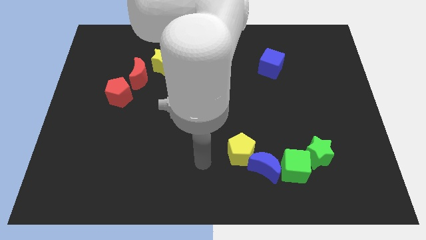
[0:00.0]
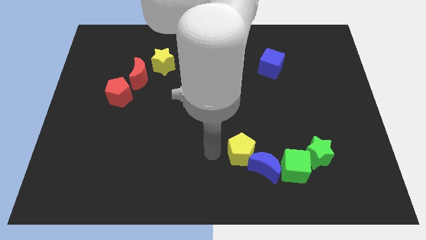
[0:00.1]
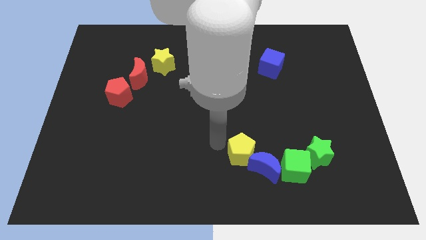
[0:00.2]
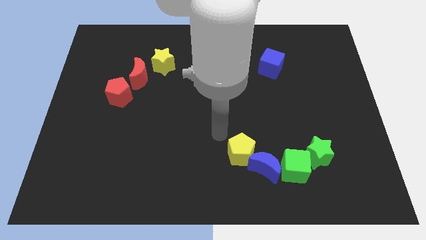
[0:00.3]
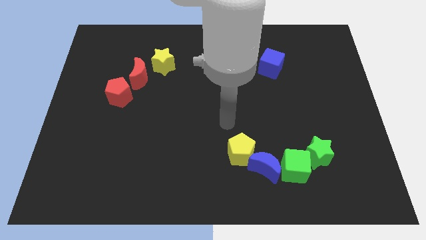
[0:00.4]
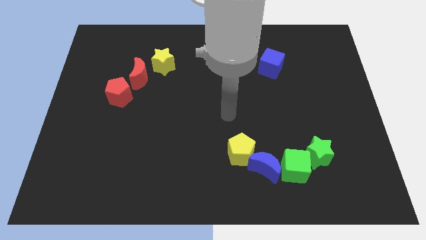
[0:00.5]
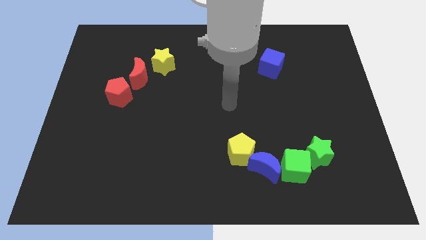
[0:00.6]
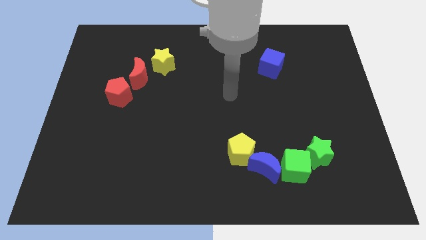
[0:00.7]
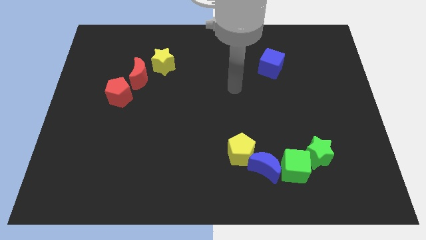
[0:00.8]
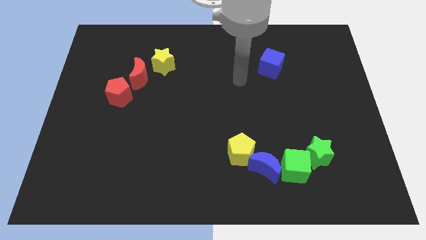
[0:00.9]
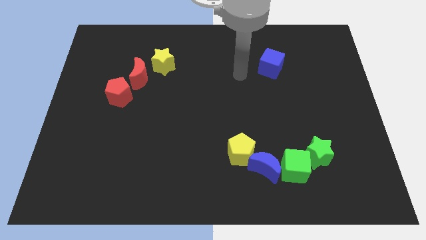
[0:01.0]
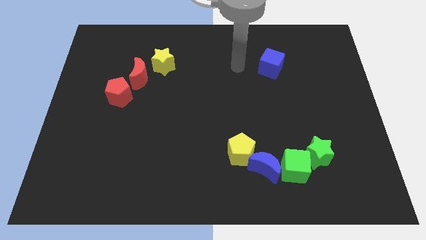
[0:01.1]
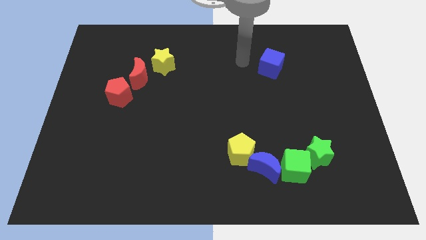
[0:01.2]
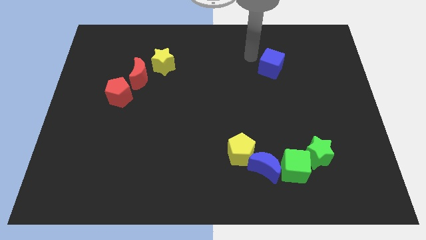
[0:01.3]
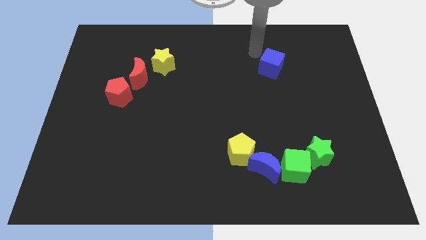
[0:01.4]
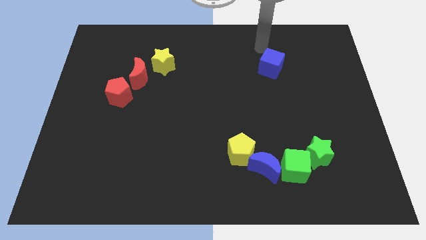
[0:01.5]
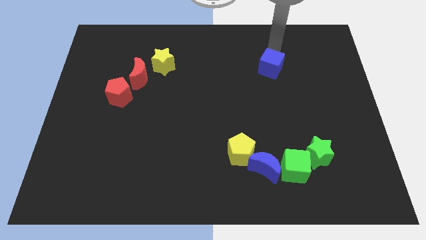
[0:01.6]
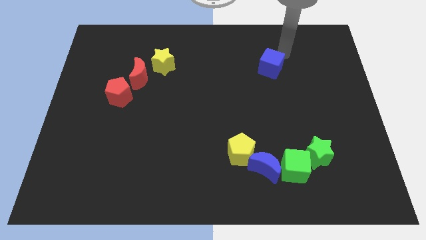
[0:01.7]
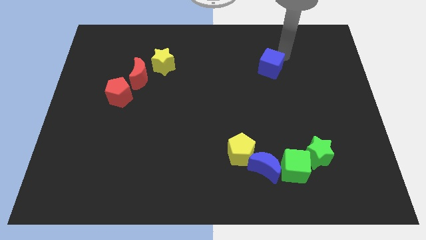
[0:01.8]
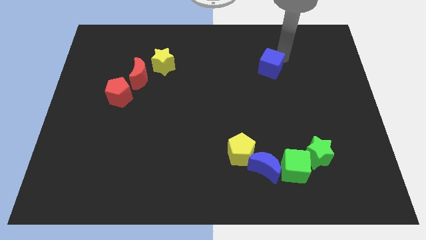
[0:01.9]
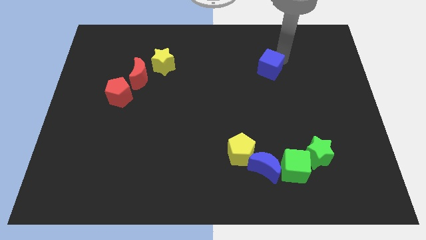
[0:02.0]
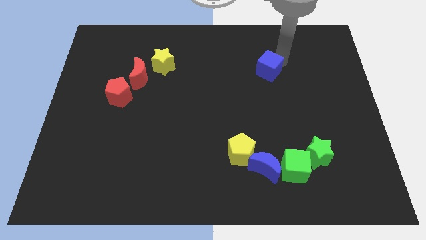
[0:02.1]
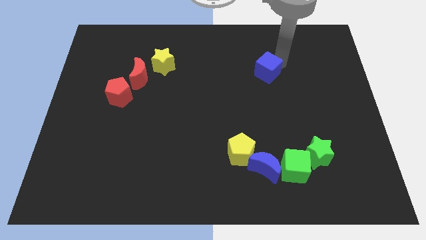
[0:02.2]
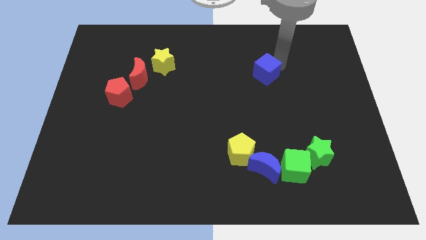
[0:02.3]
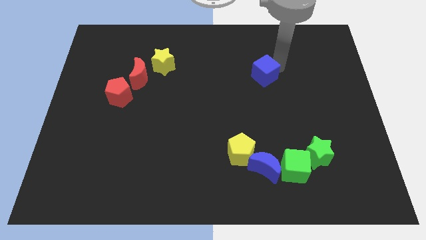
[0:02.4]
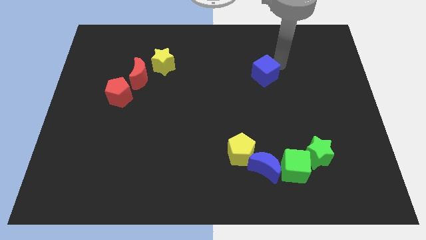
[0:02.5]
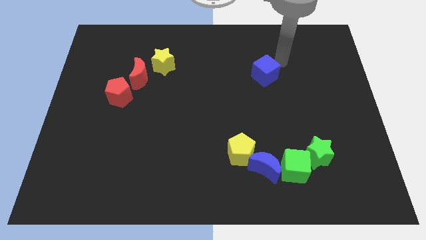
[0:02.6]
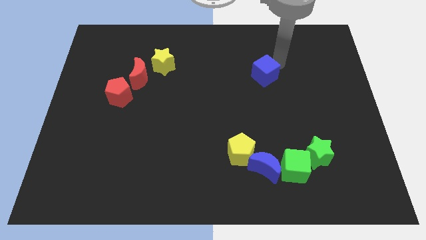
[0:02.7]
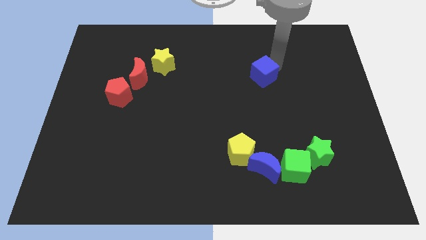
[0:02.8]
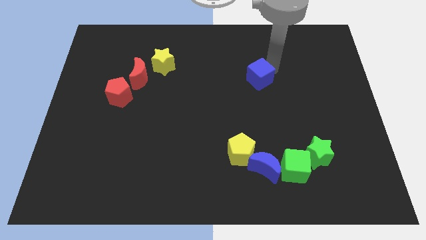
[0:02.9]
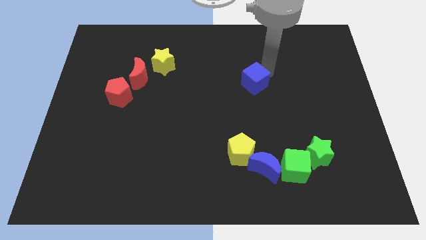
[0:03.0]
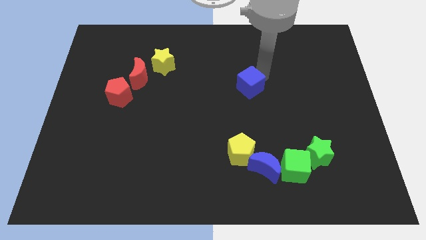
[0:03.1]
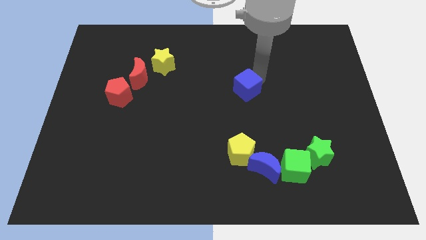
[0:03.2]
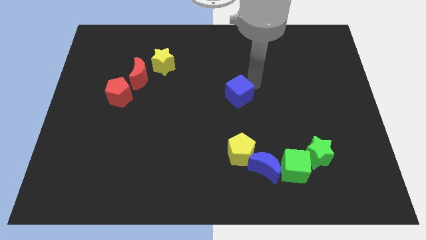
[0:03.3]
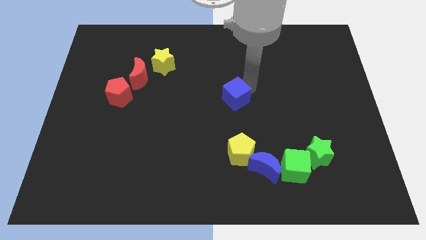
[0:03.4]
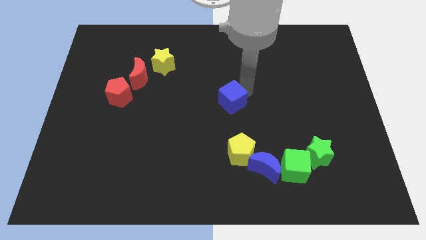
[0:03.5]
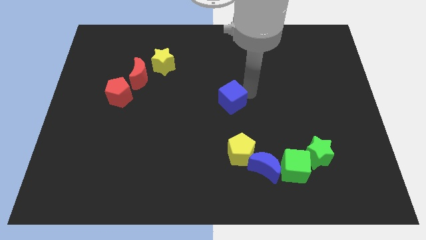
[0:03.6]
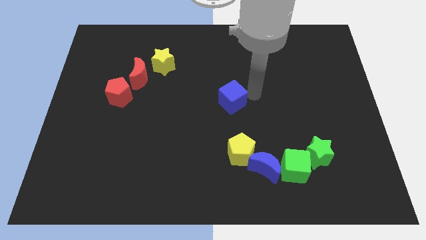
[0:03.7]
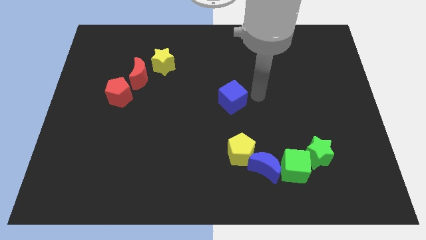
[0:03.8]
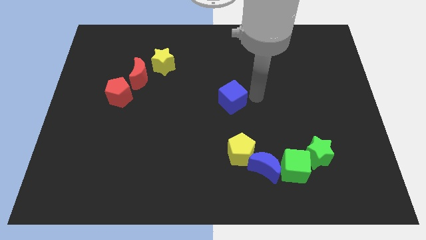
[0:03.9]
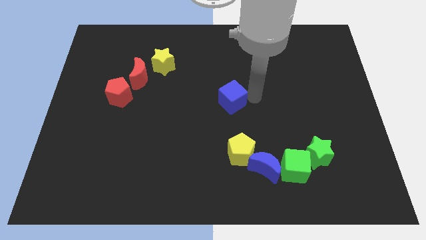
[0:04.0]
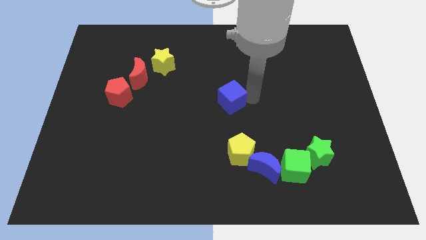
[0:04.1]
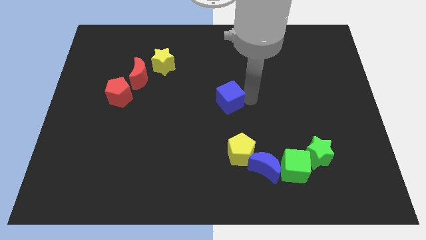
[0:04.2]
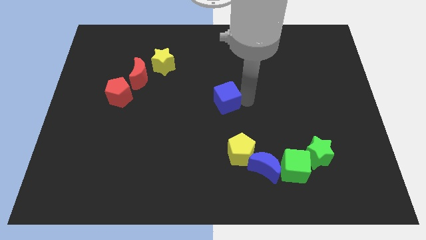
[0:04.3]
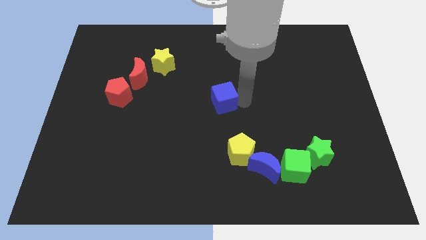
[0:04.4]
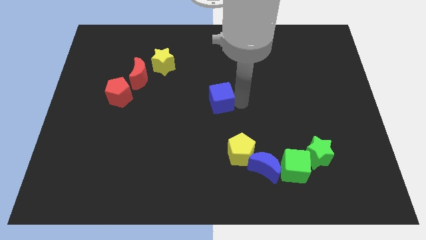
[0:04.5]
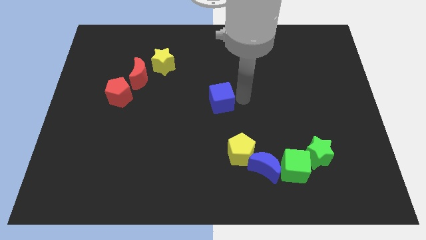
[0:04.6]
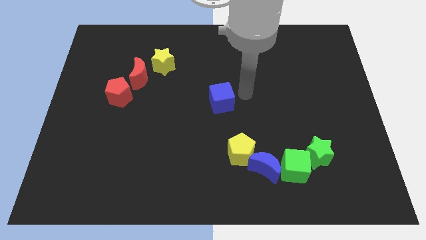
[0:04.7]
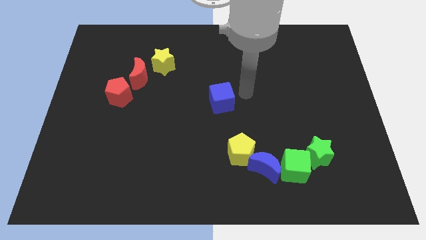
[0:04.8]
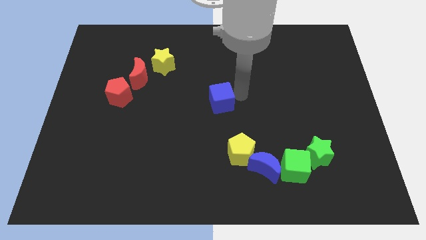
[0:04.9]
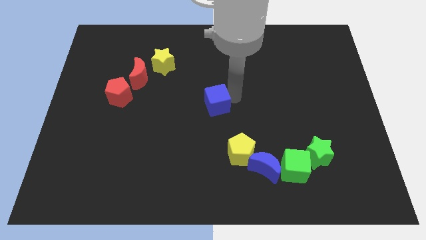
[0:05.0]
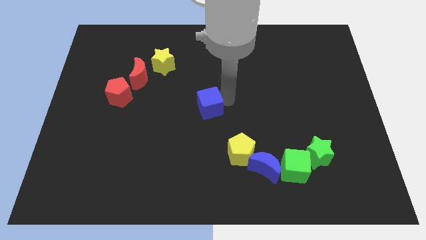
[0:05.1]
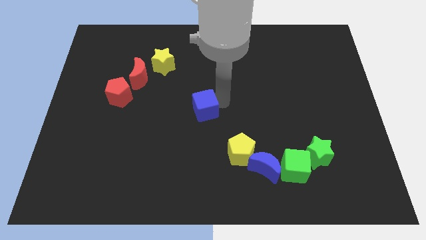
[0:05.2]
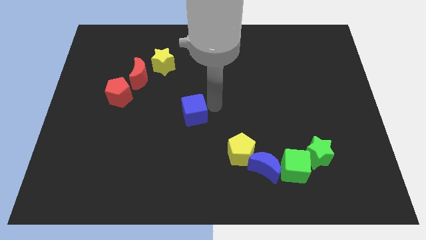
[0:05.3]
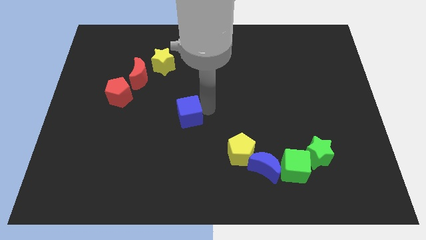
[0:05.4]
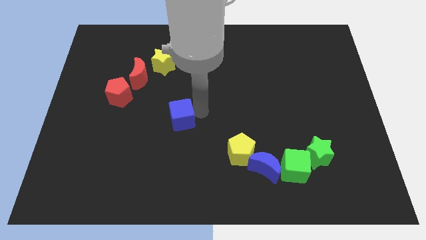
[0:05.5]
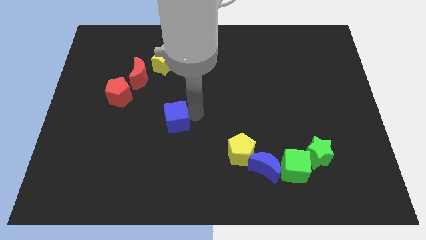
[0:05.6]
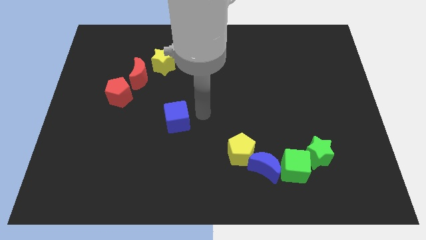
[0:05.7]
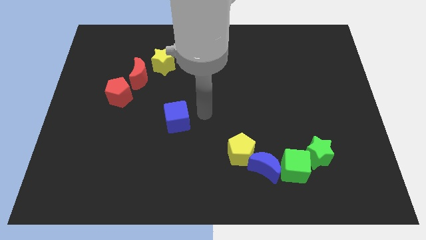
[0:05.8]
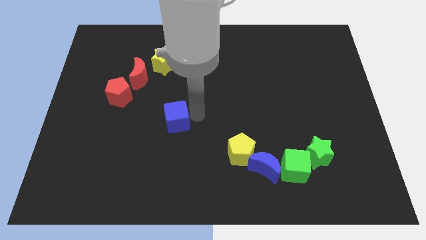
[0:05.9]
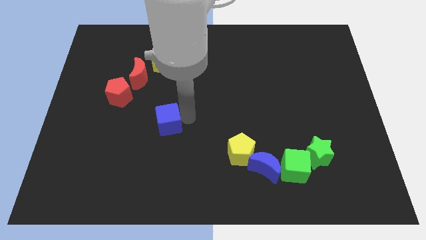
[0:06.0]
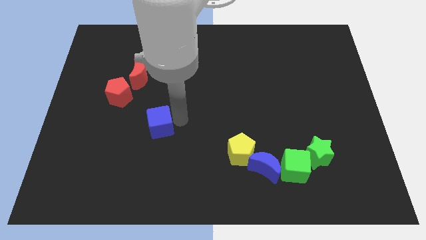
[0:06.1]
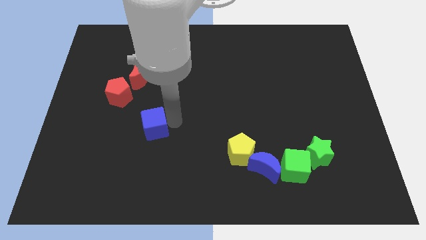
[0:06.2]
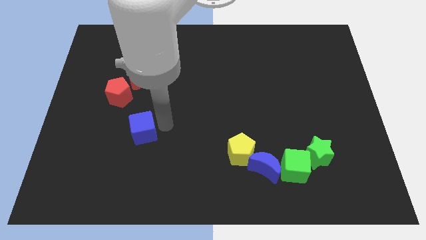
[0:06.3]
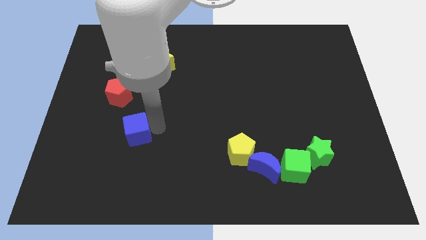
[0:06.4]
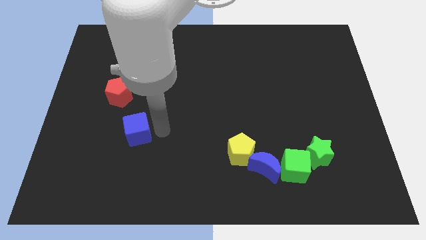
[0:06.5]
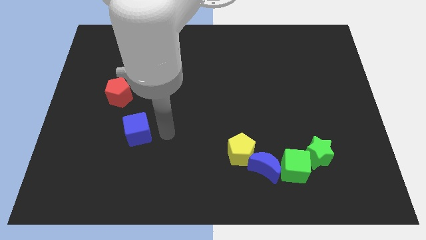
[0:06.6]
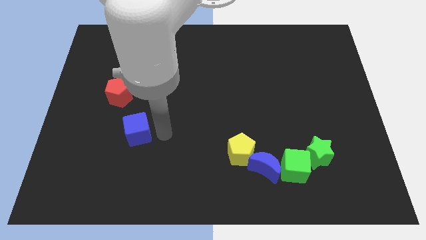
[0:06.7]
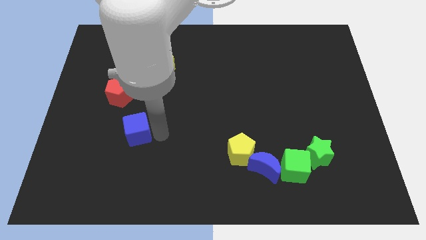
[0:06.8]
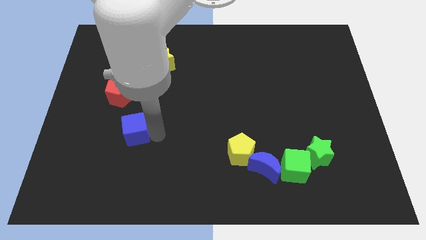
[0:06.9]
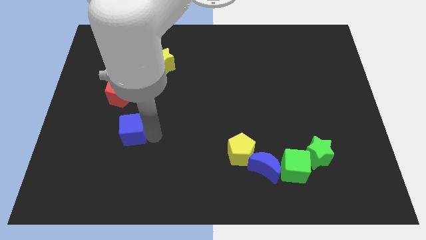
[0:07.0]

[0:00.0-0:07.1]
push the blue cube to the bottom side of the red pentagon

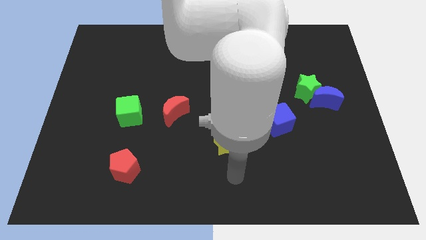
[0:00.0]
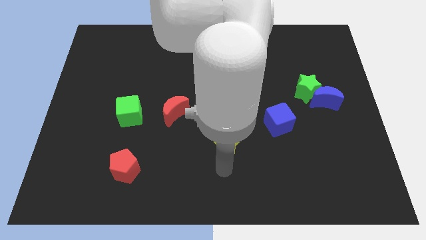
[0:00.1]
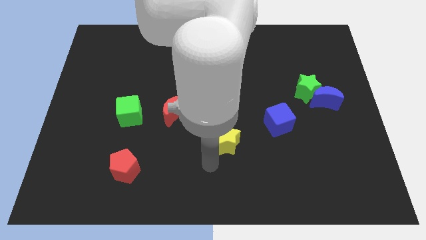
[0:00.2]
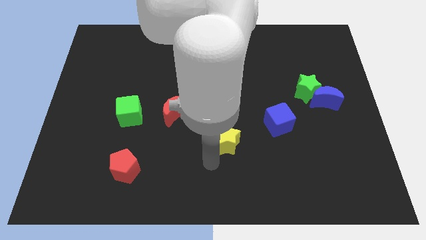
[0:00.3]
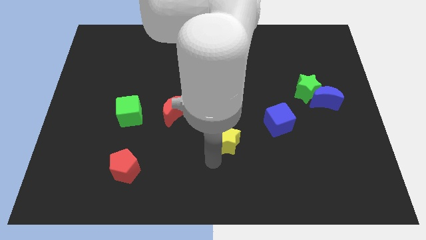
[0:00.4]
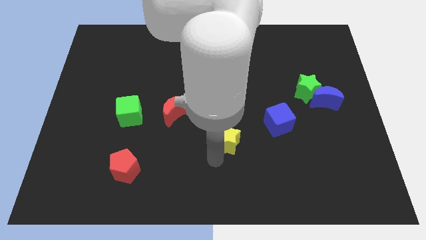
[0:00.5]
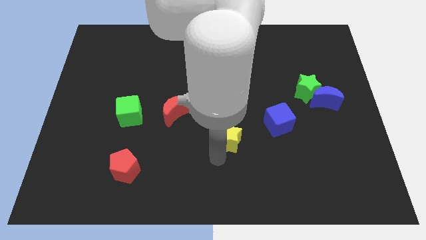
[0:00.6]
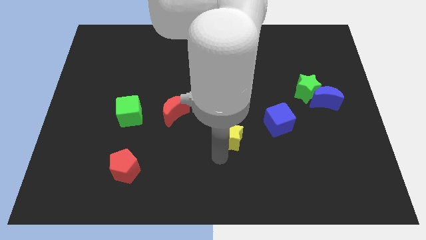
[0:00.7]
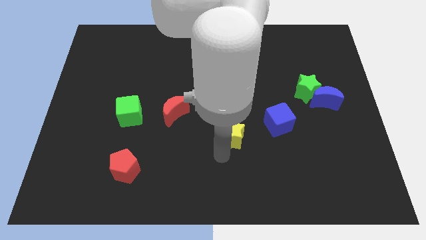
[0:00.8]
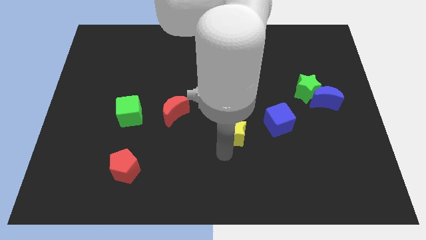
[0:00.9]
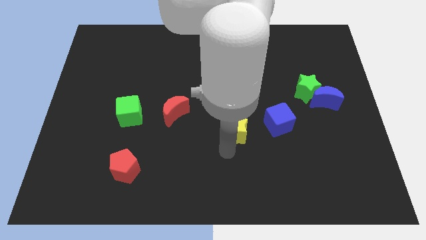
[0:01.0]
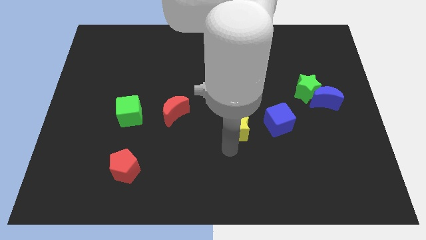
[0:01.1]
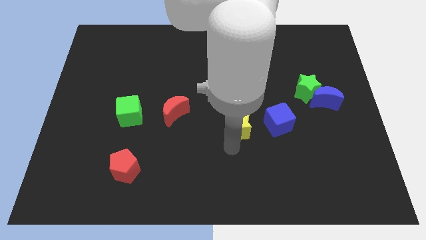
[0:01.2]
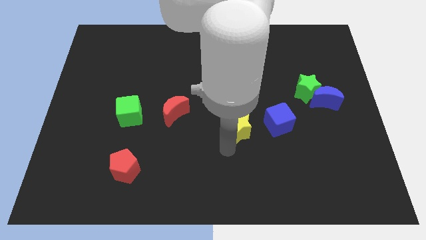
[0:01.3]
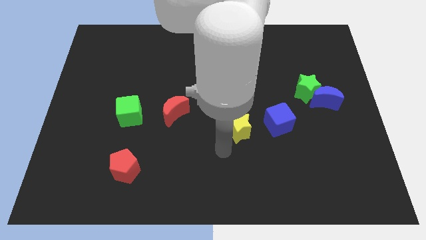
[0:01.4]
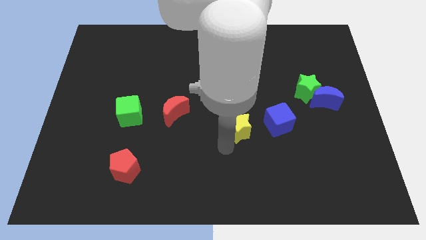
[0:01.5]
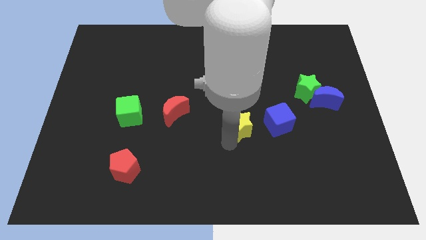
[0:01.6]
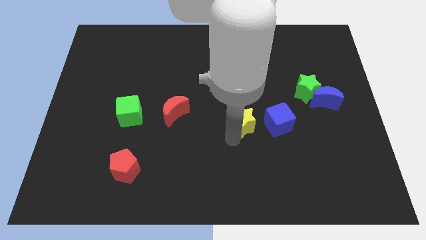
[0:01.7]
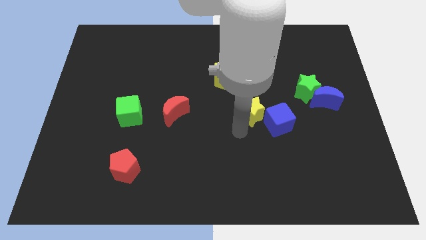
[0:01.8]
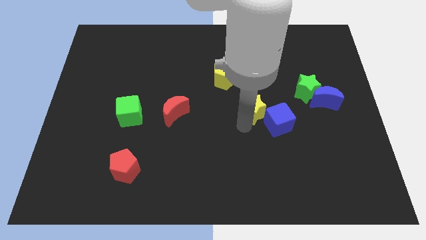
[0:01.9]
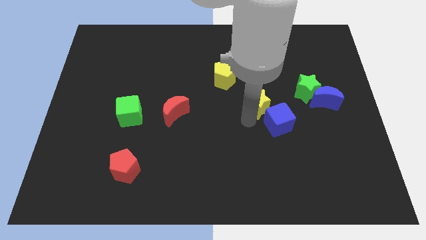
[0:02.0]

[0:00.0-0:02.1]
put the yellow star left of the green star
